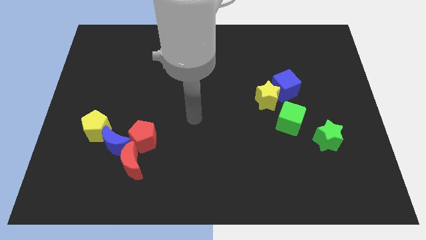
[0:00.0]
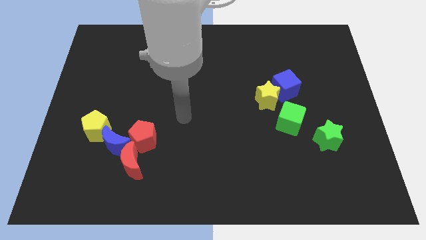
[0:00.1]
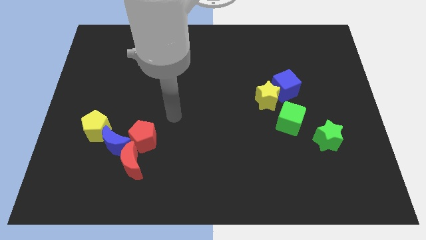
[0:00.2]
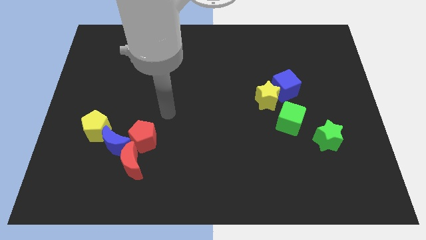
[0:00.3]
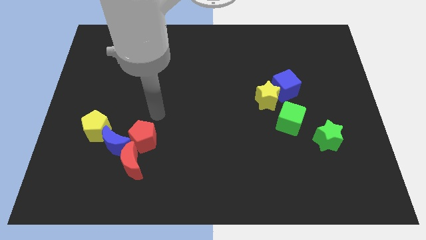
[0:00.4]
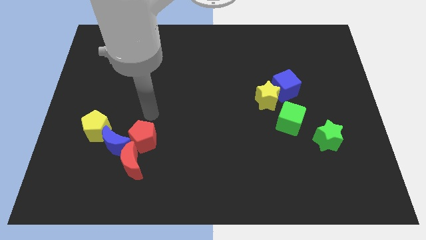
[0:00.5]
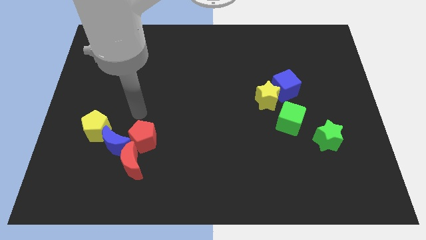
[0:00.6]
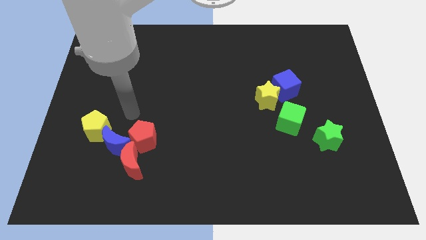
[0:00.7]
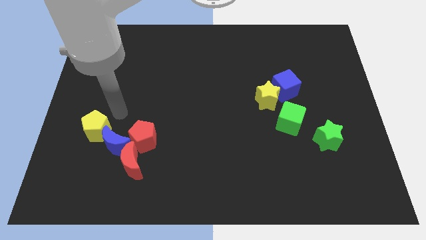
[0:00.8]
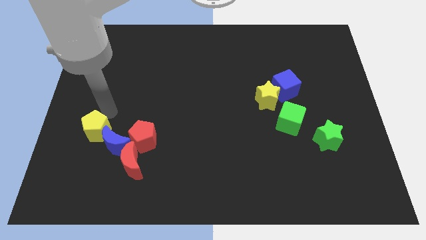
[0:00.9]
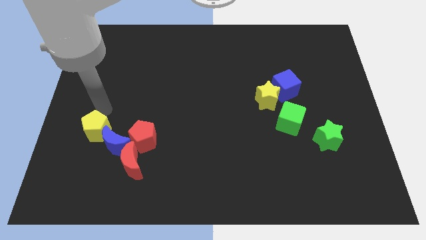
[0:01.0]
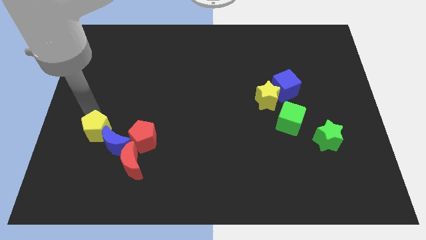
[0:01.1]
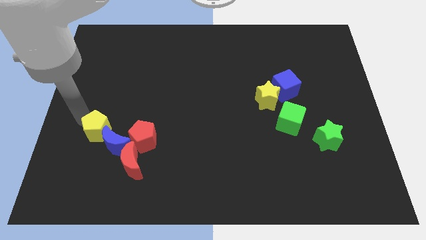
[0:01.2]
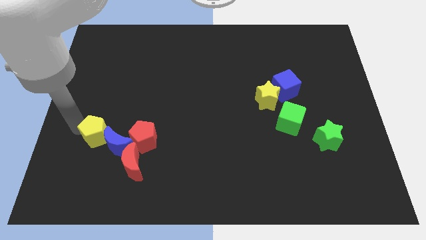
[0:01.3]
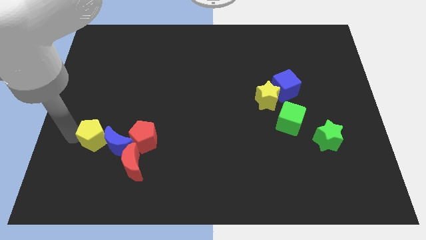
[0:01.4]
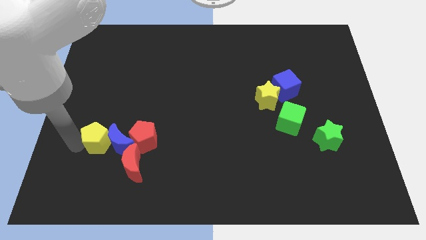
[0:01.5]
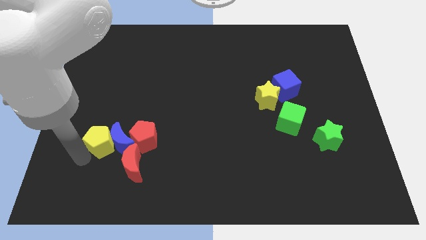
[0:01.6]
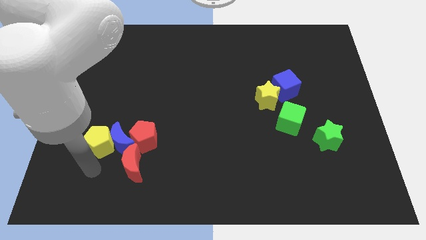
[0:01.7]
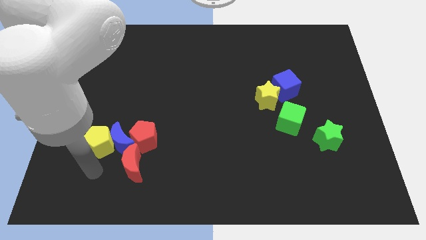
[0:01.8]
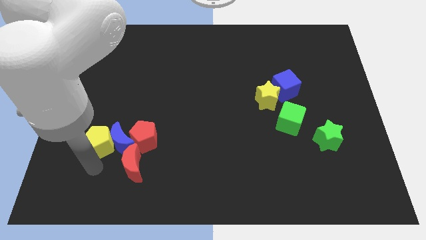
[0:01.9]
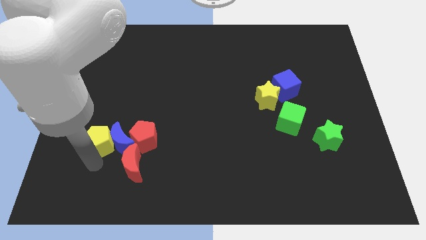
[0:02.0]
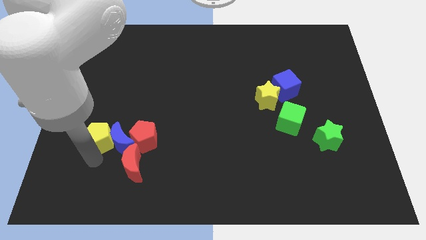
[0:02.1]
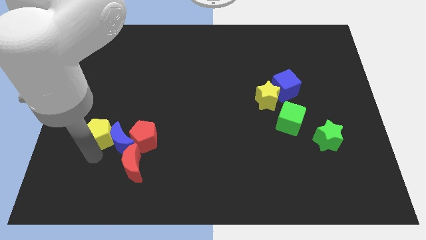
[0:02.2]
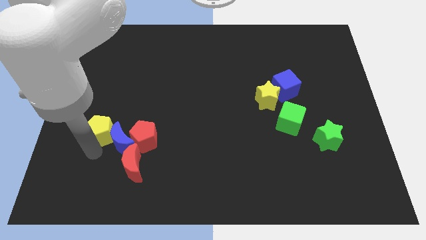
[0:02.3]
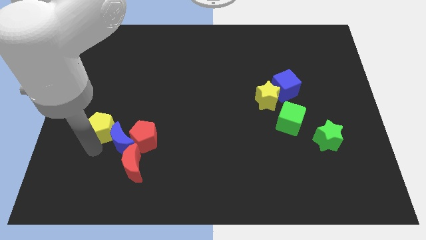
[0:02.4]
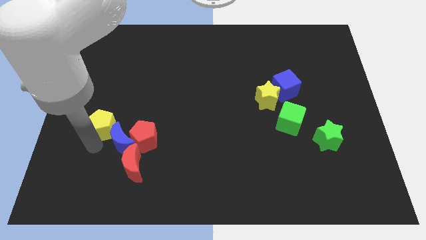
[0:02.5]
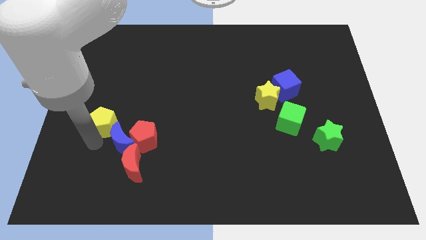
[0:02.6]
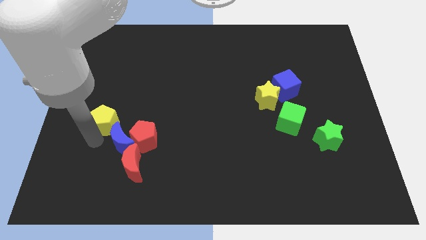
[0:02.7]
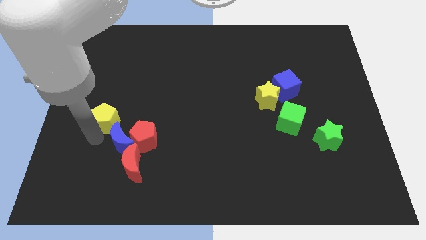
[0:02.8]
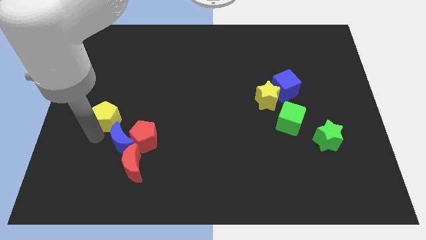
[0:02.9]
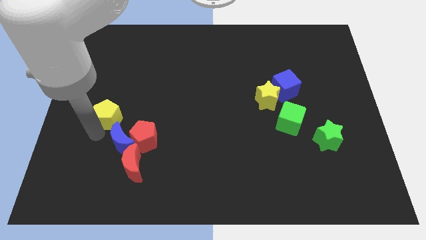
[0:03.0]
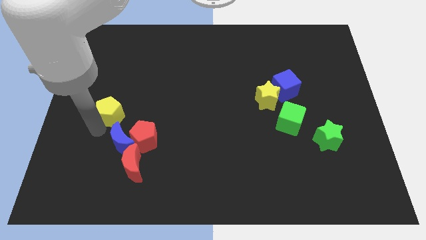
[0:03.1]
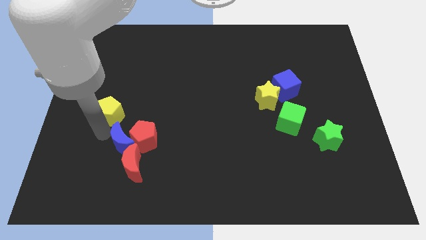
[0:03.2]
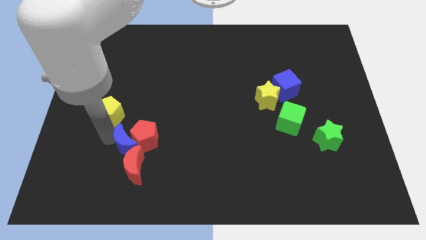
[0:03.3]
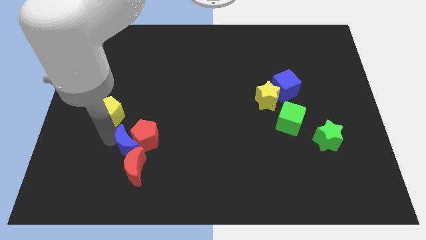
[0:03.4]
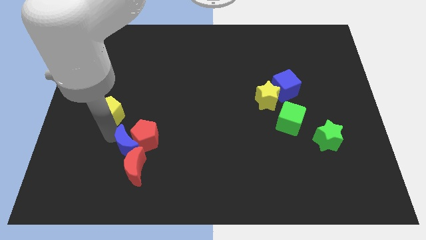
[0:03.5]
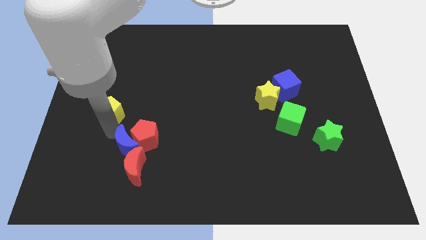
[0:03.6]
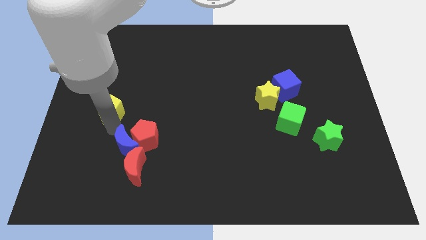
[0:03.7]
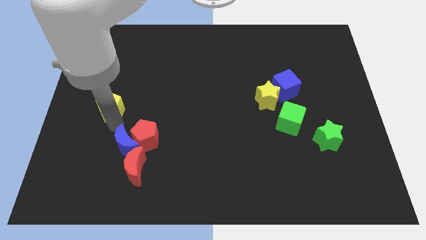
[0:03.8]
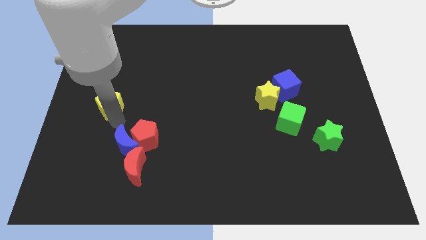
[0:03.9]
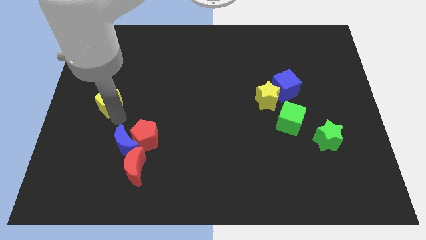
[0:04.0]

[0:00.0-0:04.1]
slide the yellow pentagon up a little

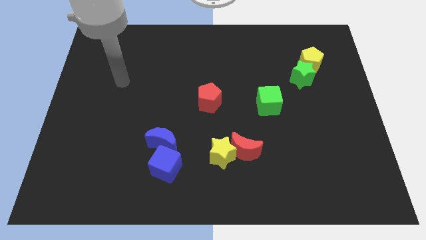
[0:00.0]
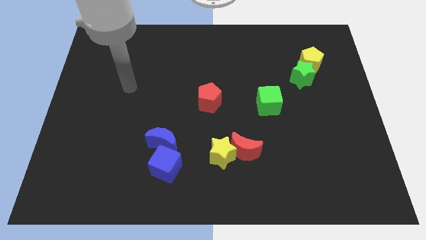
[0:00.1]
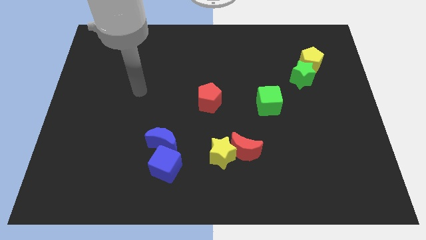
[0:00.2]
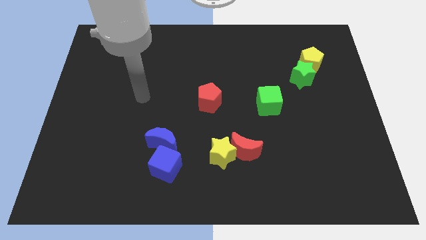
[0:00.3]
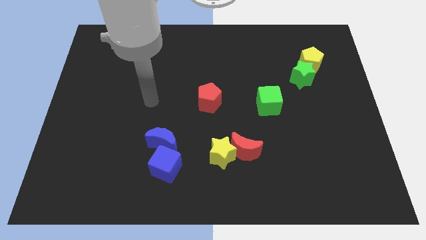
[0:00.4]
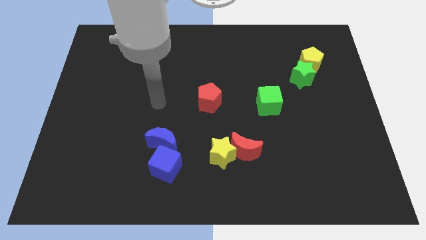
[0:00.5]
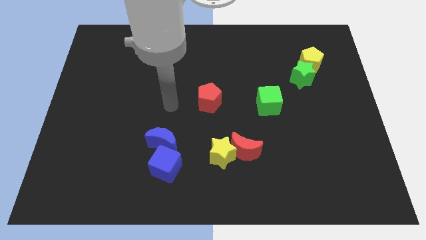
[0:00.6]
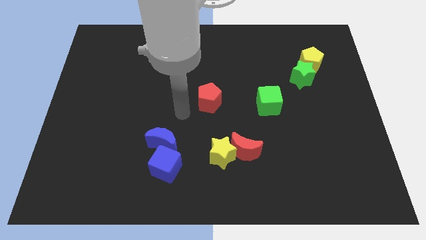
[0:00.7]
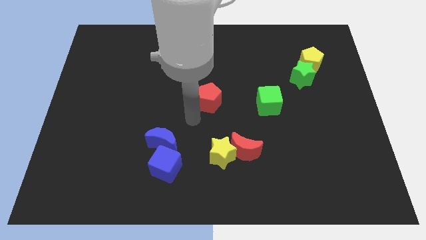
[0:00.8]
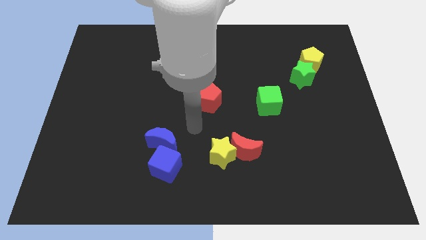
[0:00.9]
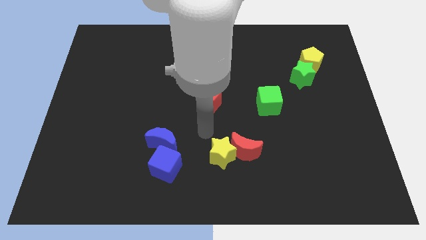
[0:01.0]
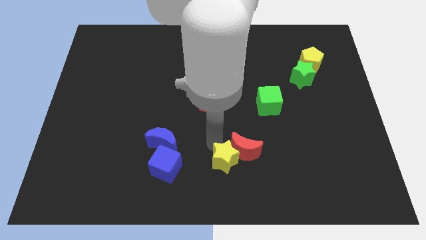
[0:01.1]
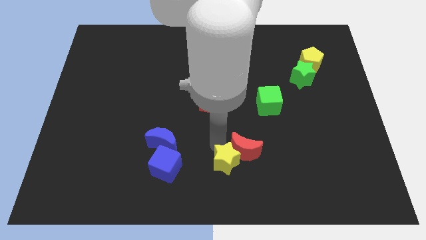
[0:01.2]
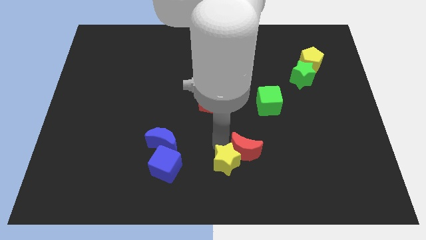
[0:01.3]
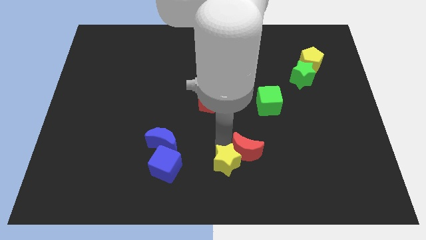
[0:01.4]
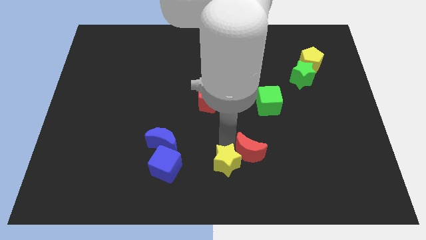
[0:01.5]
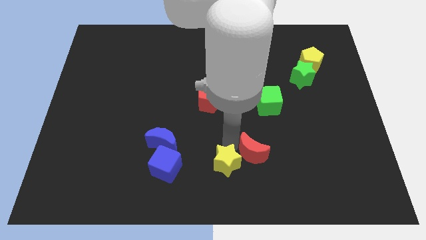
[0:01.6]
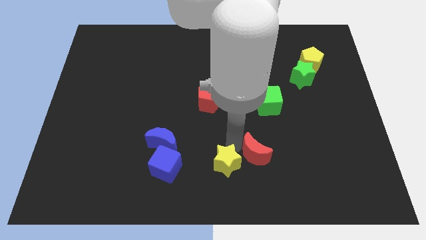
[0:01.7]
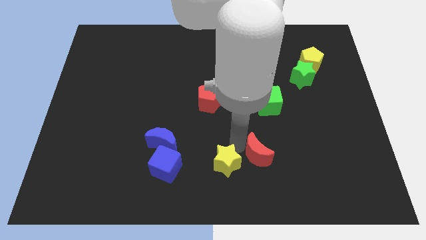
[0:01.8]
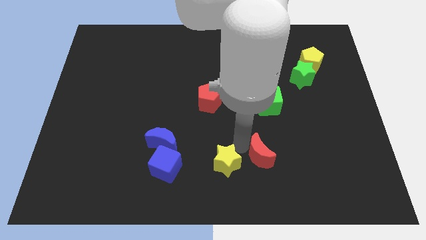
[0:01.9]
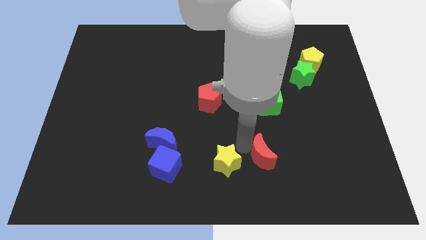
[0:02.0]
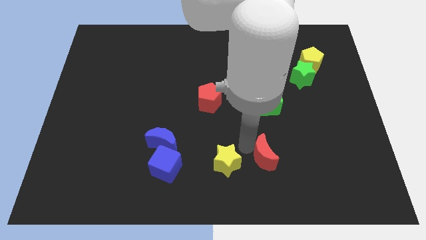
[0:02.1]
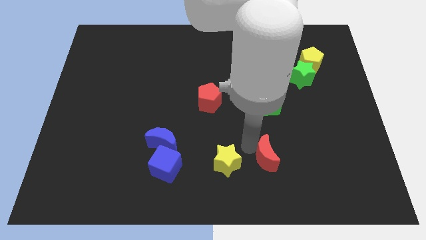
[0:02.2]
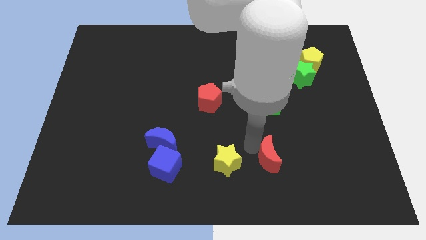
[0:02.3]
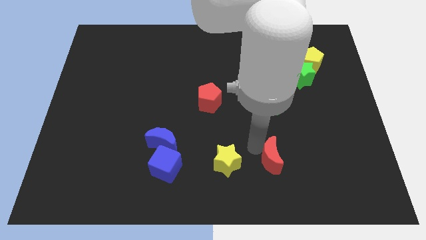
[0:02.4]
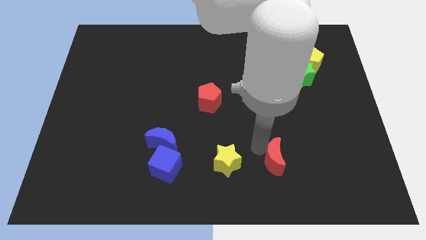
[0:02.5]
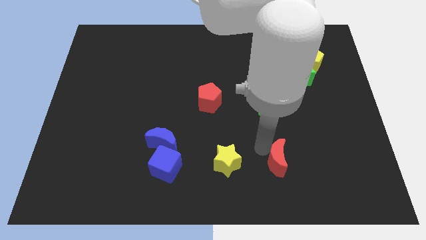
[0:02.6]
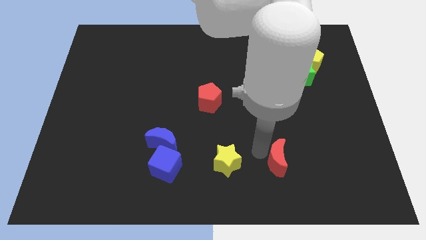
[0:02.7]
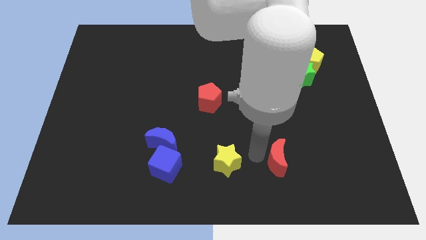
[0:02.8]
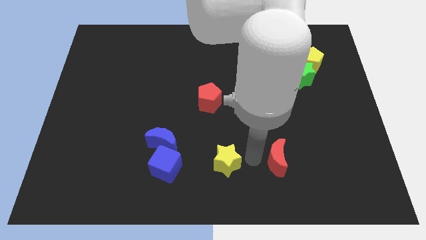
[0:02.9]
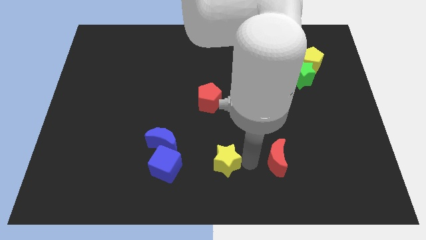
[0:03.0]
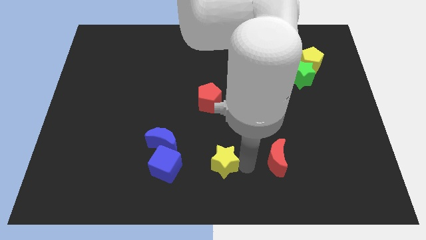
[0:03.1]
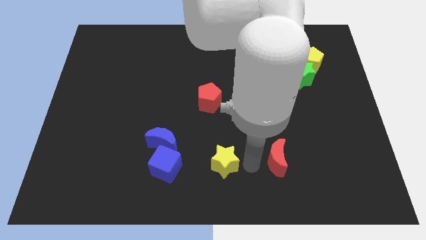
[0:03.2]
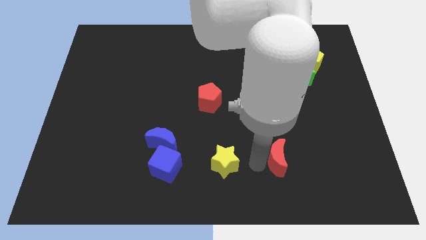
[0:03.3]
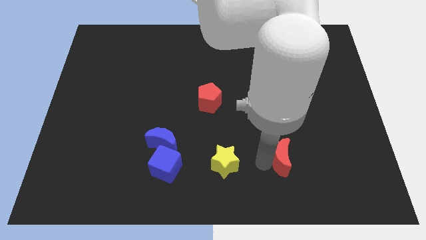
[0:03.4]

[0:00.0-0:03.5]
slide the red moon somewhat to the right

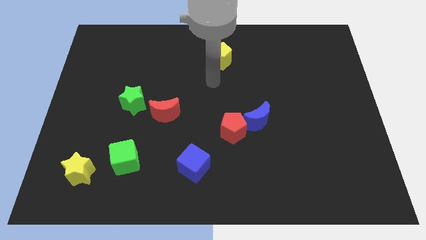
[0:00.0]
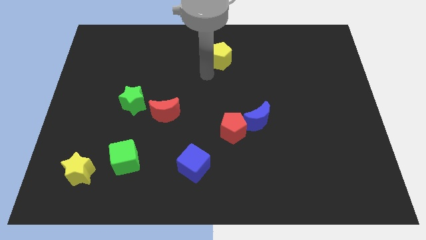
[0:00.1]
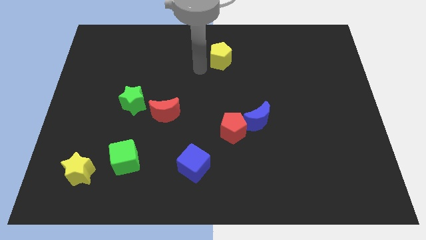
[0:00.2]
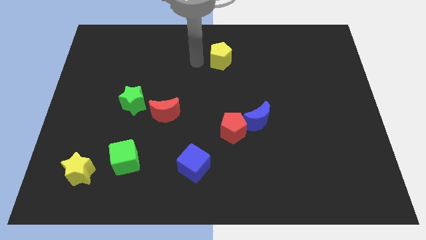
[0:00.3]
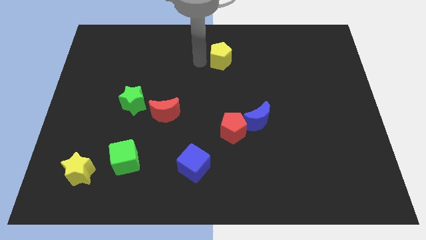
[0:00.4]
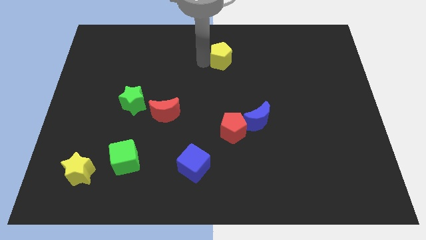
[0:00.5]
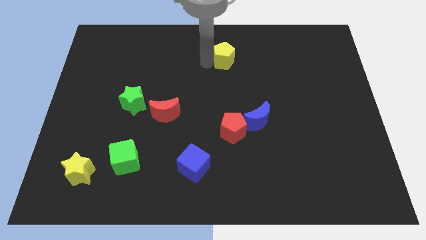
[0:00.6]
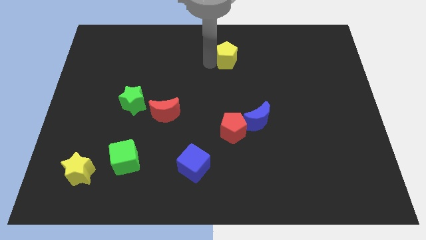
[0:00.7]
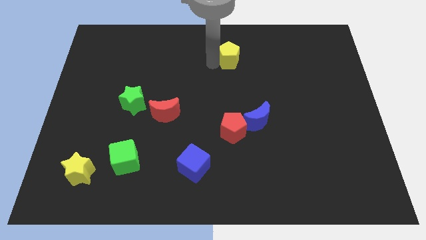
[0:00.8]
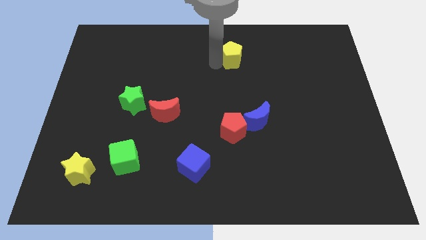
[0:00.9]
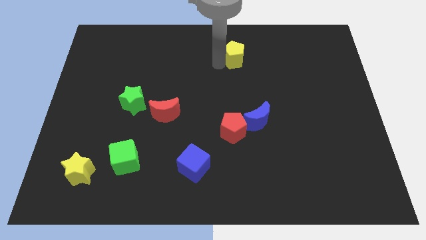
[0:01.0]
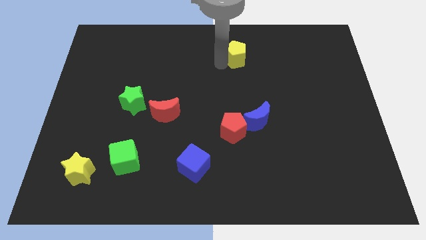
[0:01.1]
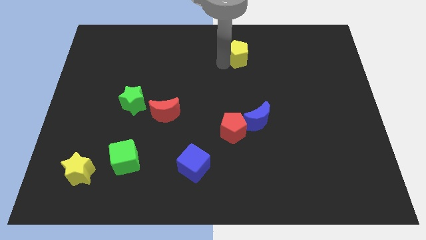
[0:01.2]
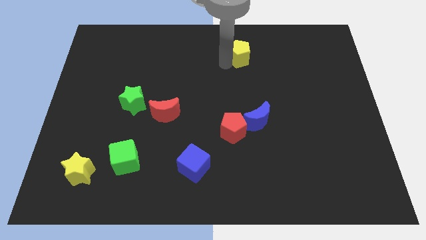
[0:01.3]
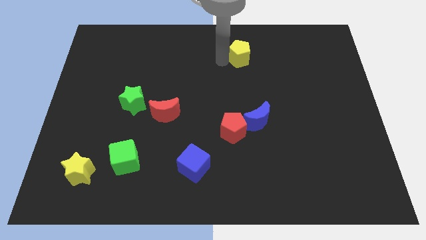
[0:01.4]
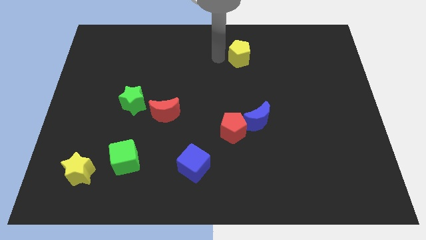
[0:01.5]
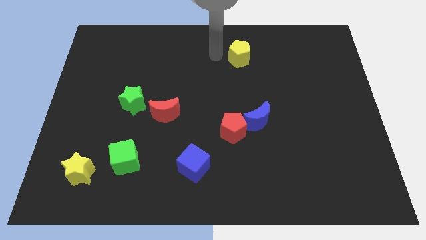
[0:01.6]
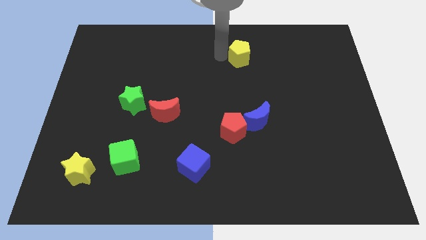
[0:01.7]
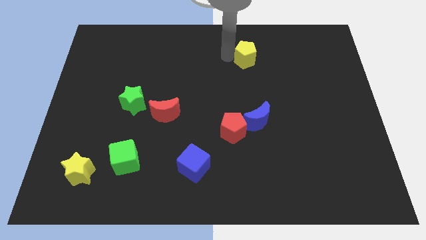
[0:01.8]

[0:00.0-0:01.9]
slide the yellow pentagon right a little
